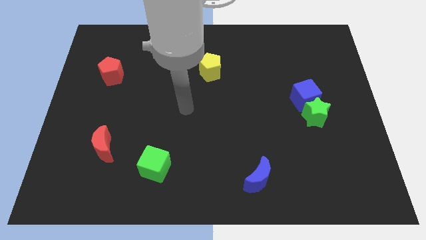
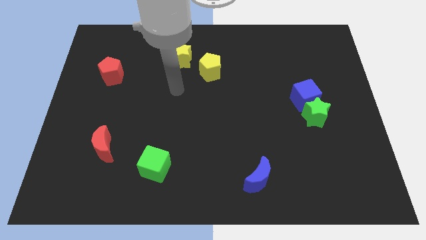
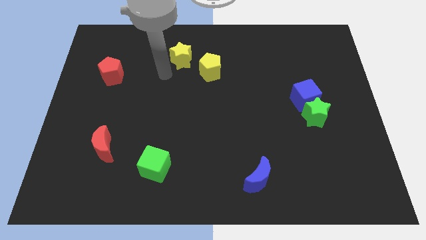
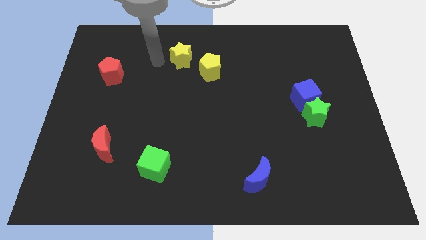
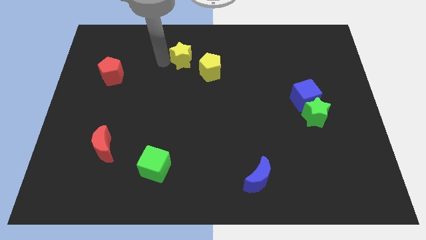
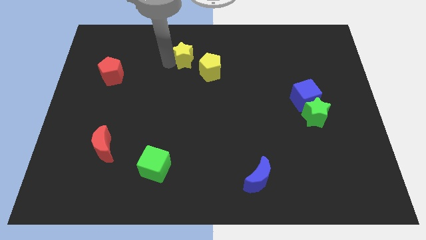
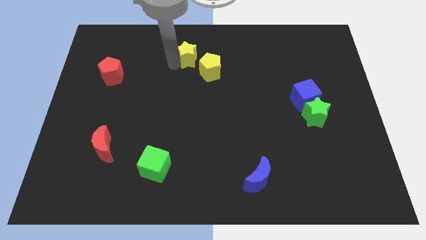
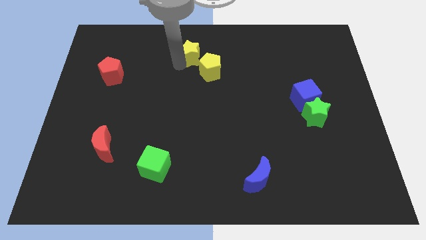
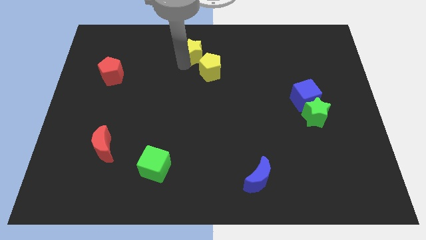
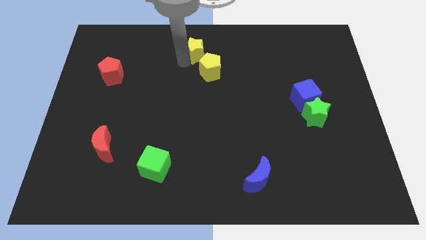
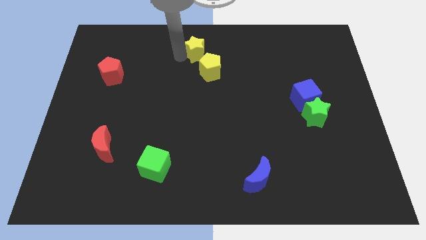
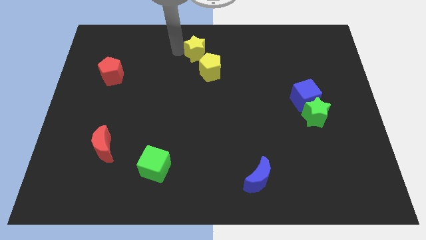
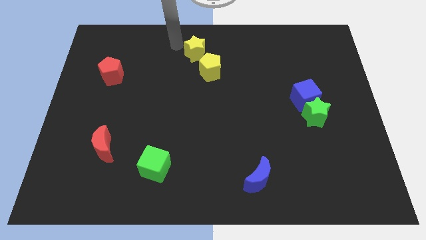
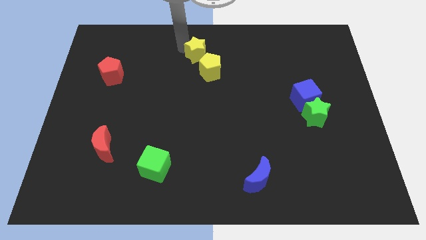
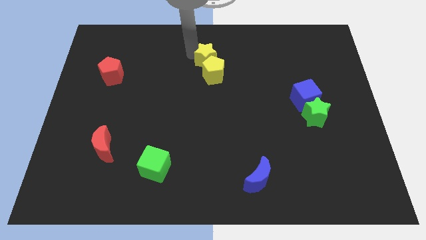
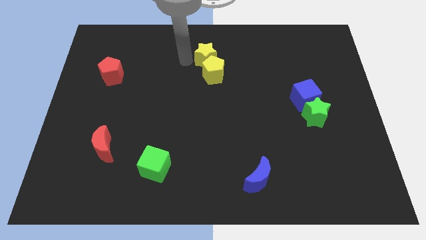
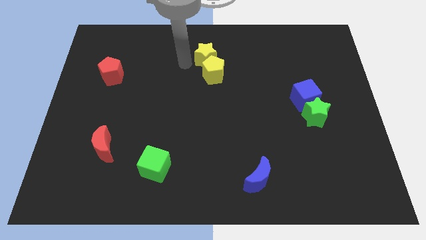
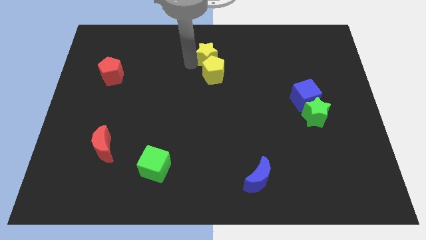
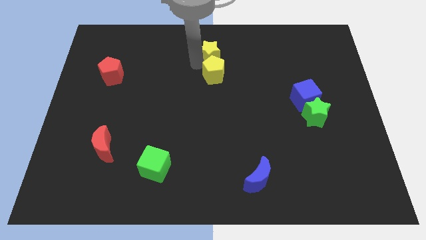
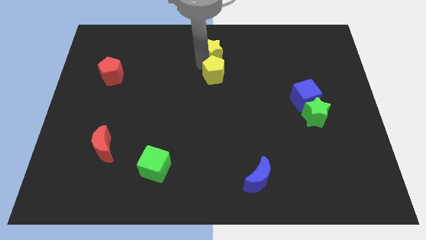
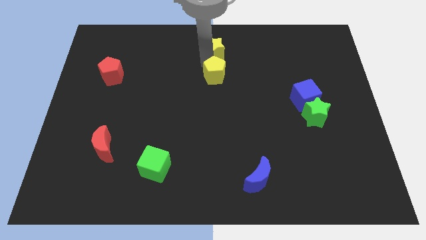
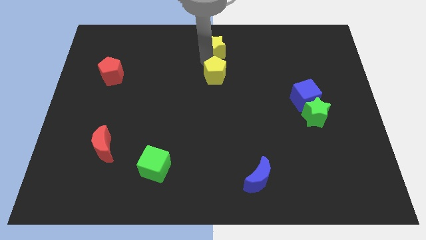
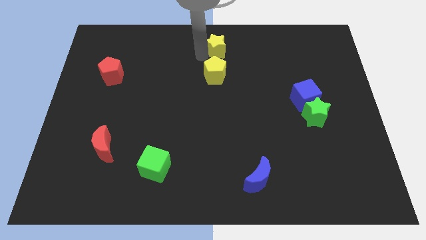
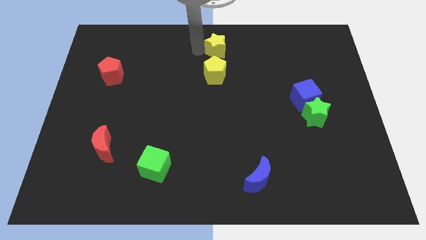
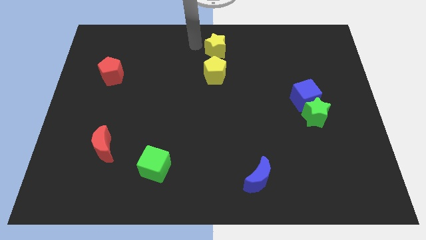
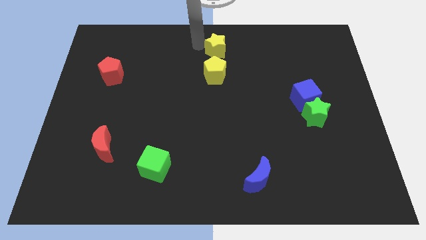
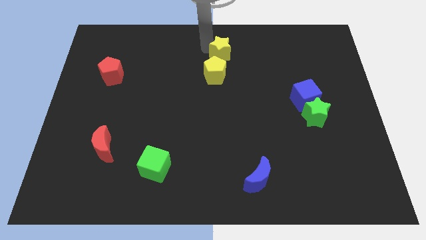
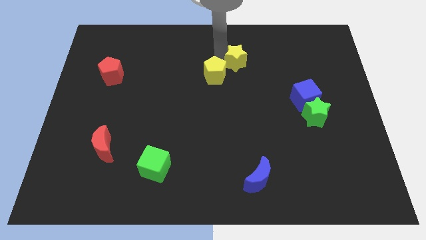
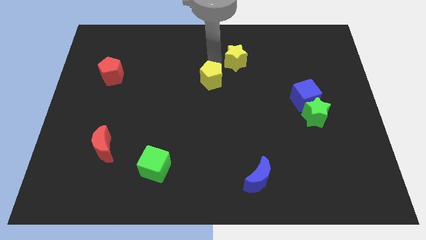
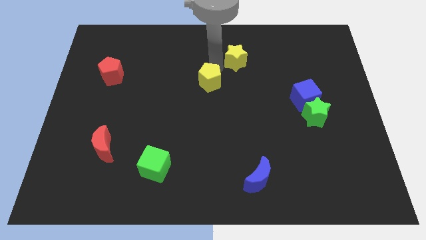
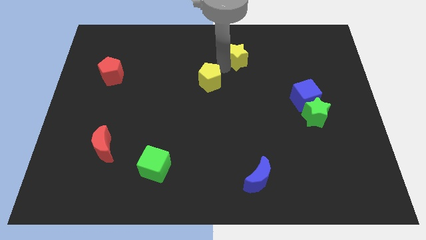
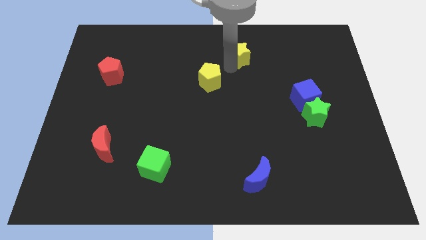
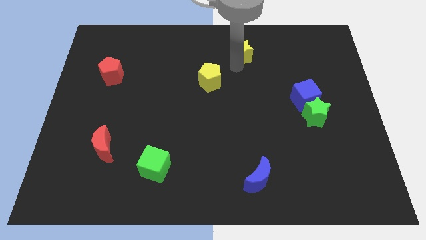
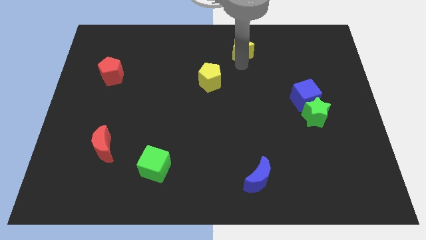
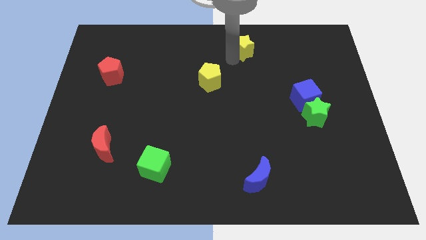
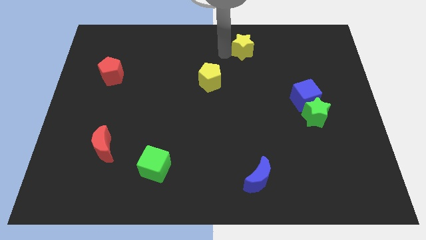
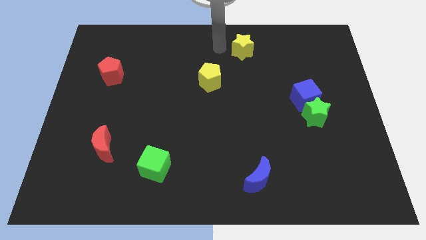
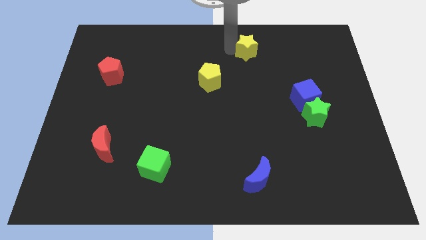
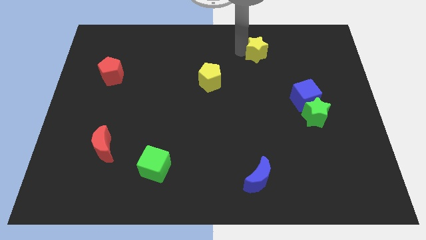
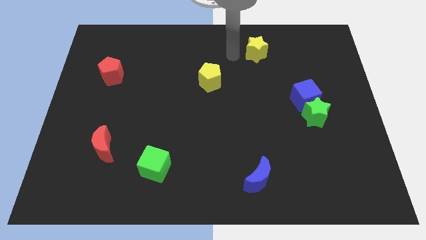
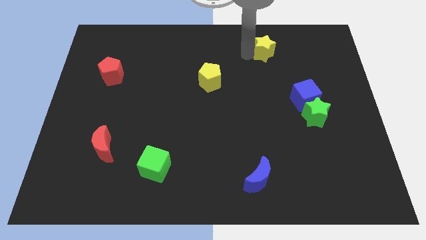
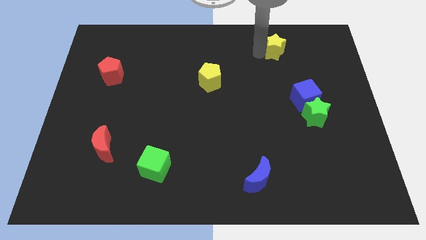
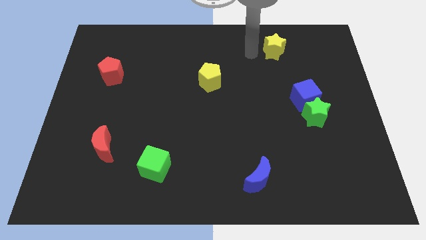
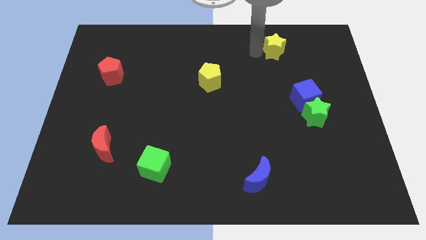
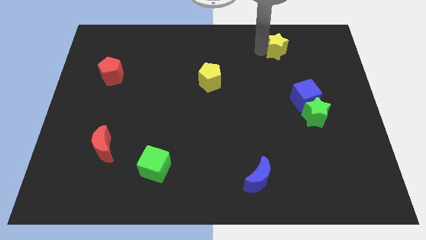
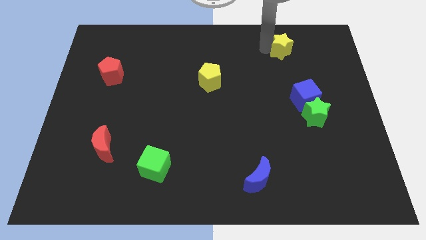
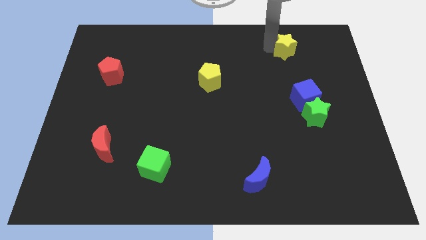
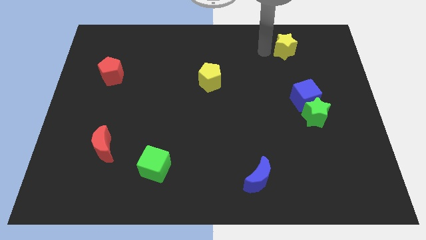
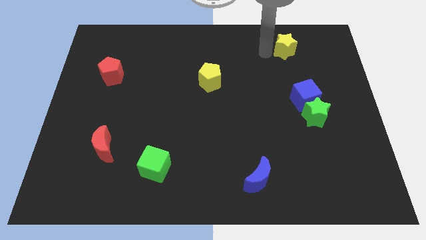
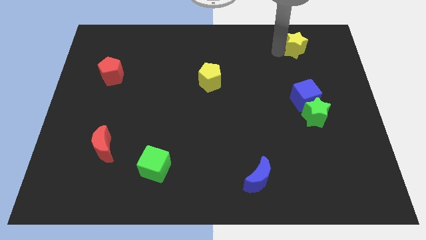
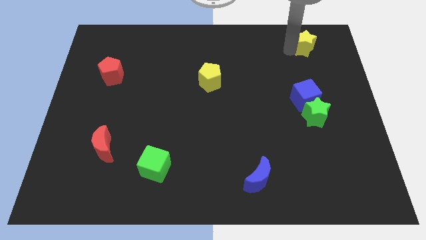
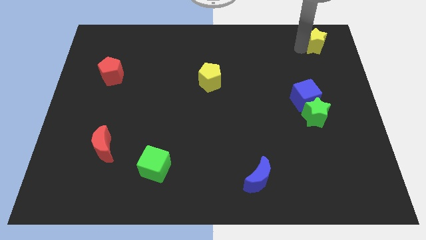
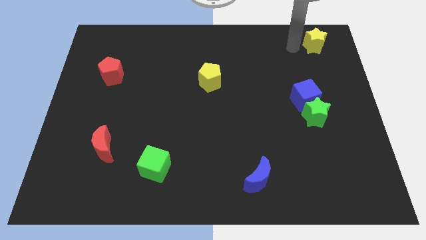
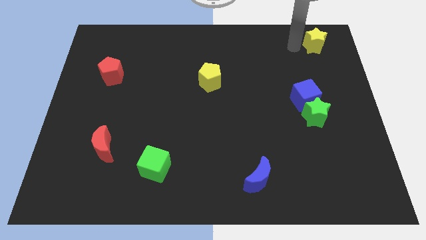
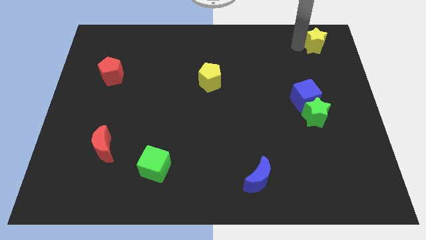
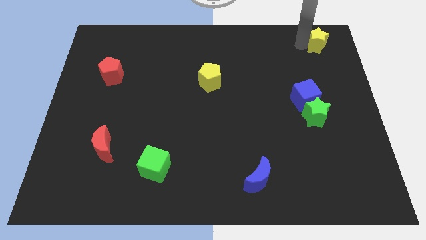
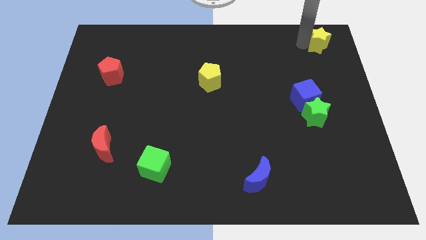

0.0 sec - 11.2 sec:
push the yellow star to the top right
